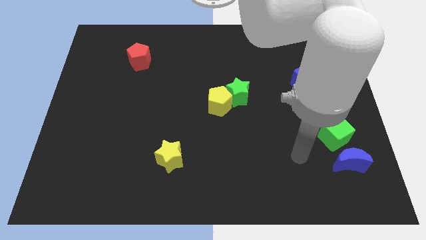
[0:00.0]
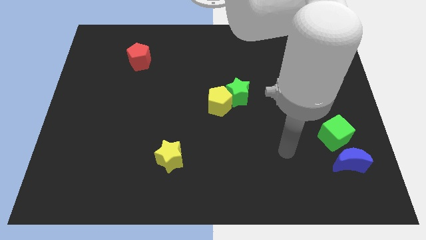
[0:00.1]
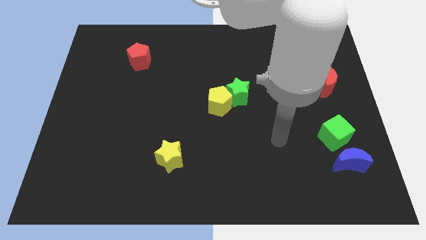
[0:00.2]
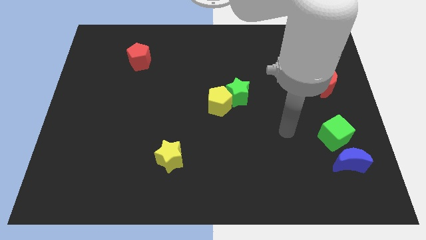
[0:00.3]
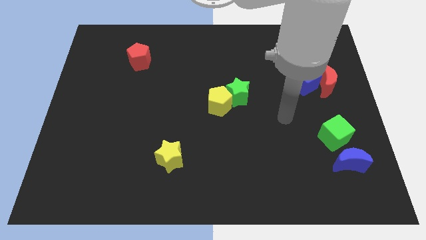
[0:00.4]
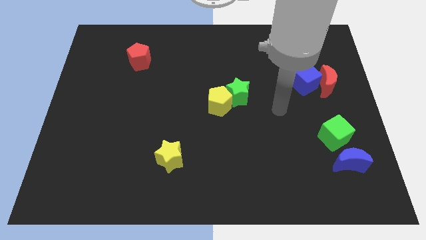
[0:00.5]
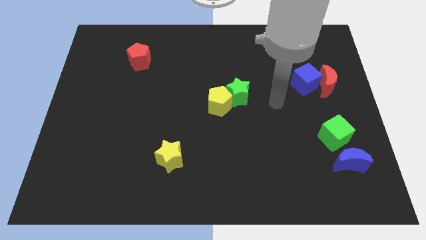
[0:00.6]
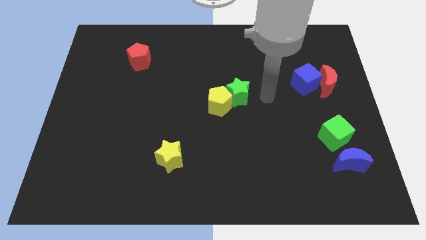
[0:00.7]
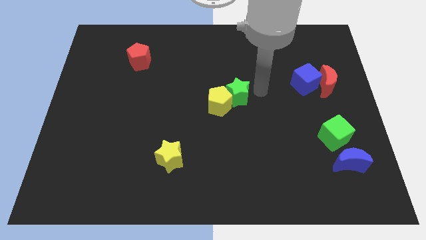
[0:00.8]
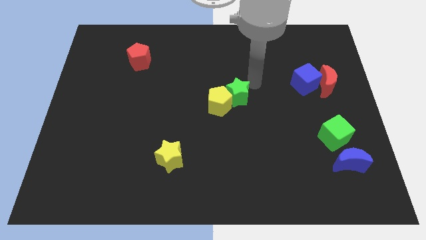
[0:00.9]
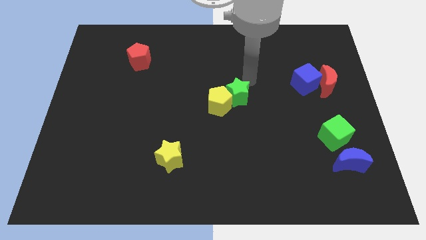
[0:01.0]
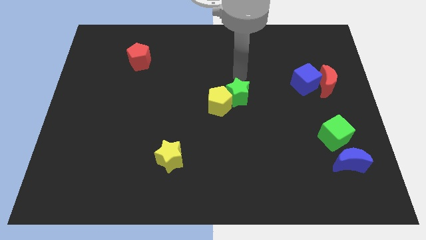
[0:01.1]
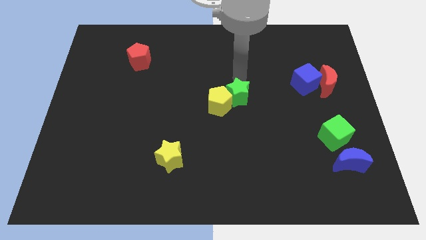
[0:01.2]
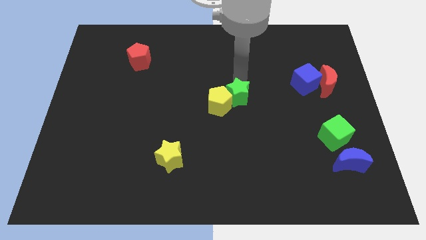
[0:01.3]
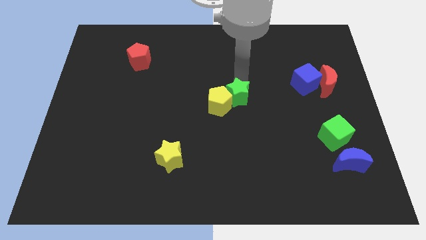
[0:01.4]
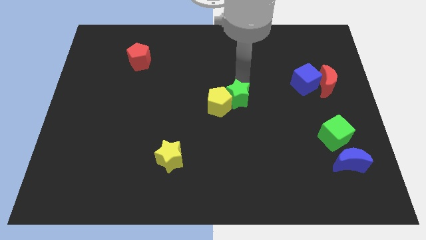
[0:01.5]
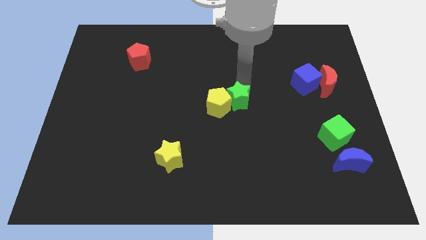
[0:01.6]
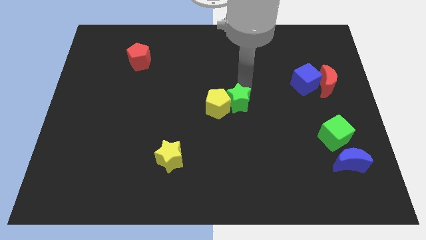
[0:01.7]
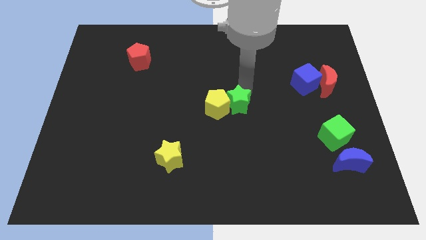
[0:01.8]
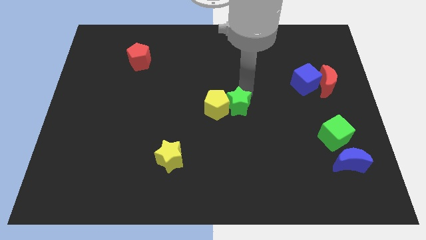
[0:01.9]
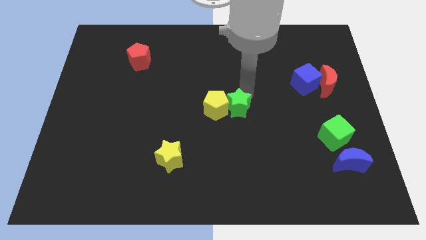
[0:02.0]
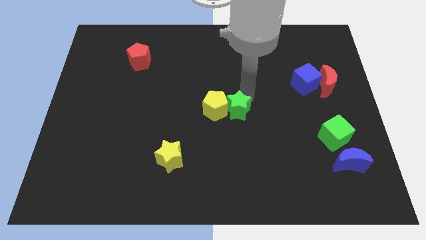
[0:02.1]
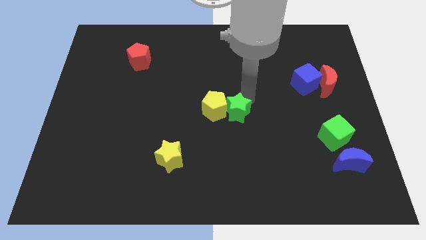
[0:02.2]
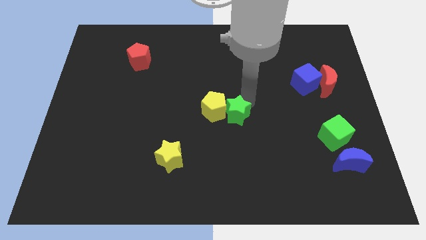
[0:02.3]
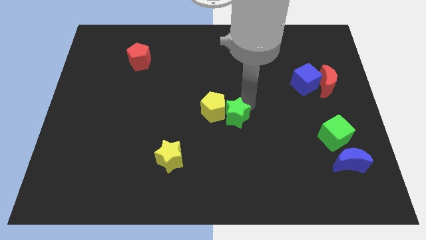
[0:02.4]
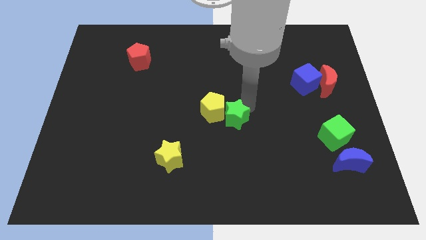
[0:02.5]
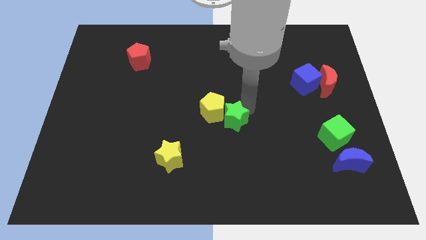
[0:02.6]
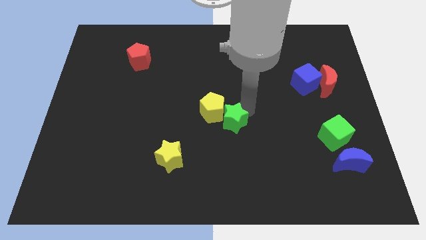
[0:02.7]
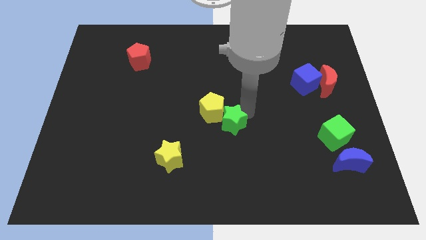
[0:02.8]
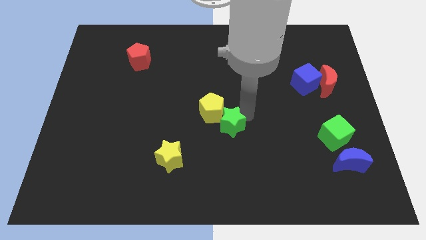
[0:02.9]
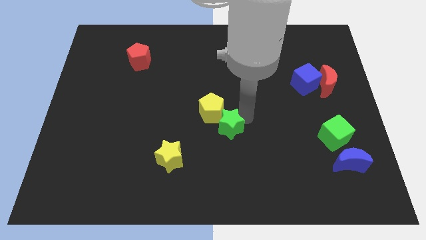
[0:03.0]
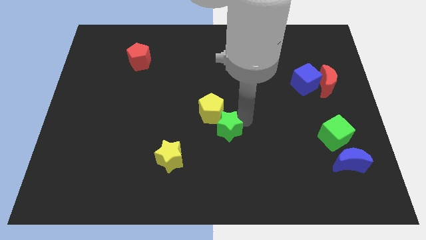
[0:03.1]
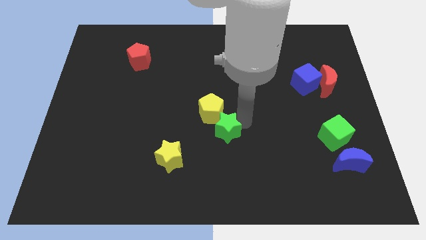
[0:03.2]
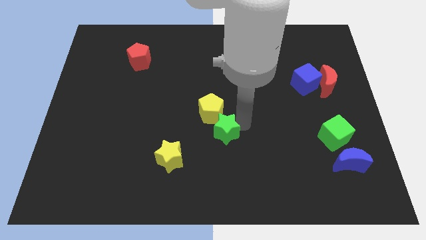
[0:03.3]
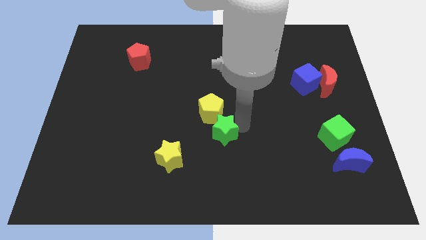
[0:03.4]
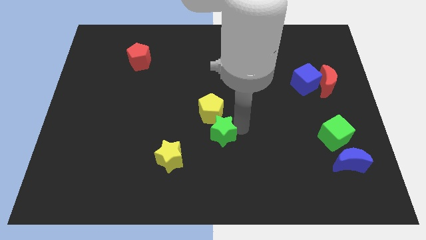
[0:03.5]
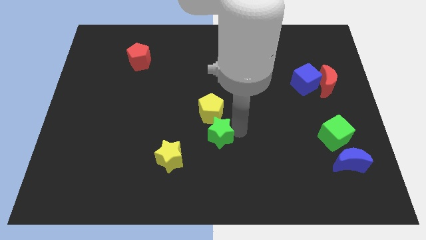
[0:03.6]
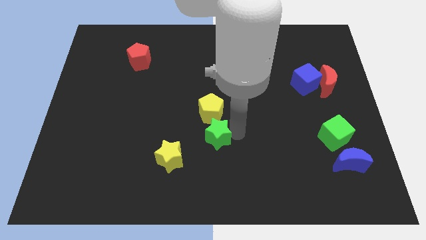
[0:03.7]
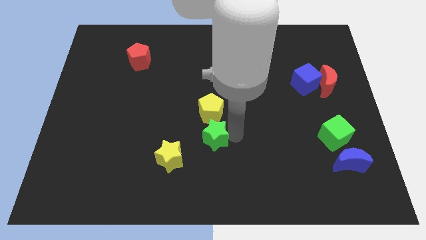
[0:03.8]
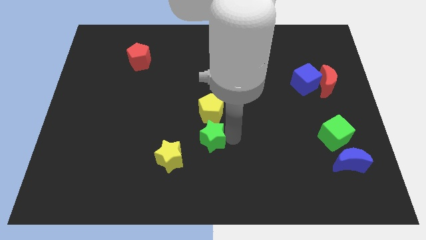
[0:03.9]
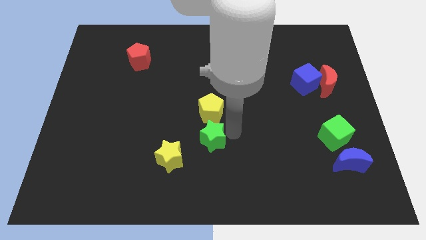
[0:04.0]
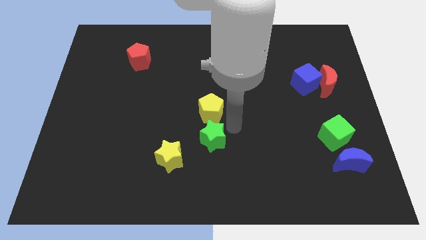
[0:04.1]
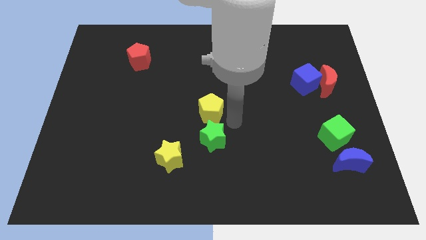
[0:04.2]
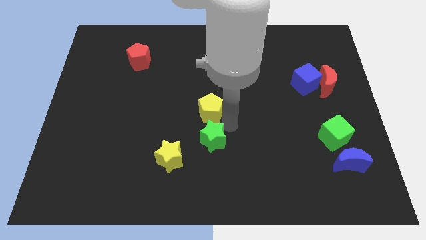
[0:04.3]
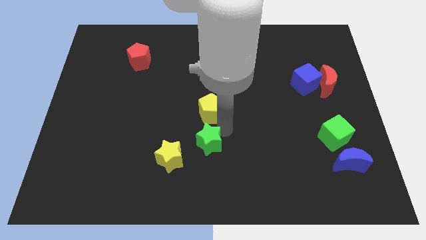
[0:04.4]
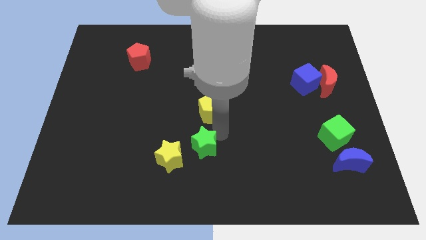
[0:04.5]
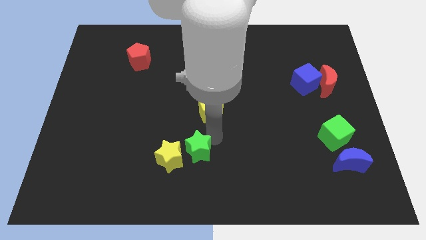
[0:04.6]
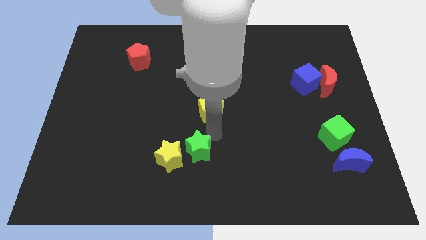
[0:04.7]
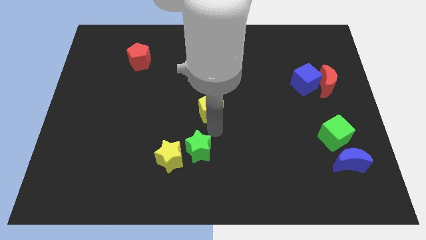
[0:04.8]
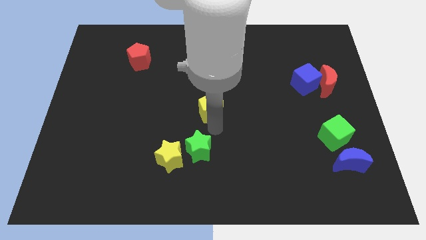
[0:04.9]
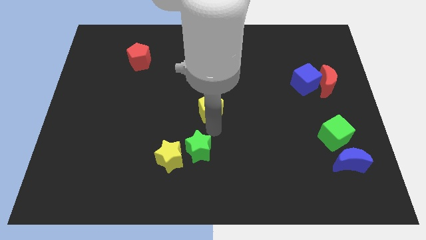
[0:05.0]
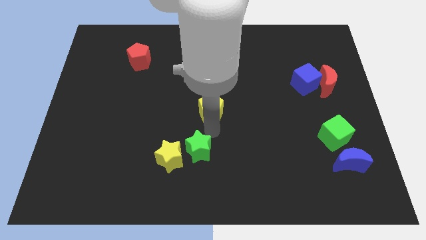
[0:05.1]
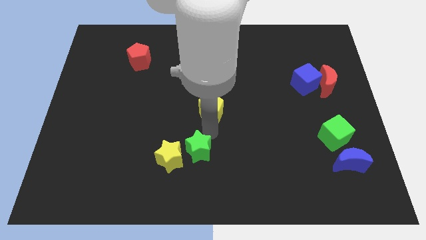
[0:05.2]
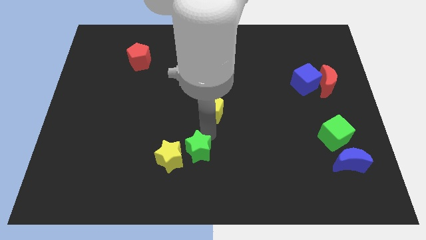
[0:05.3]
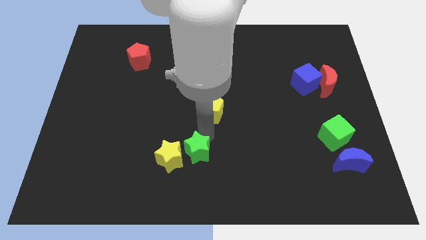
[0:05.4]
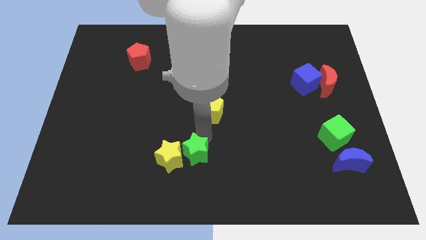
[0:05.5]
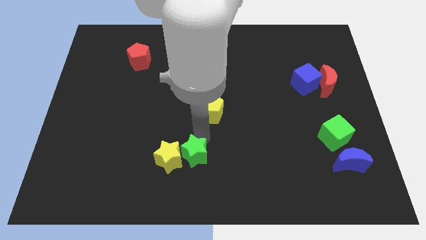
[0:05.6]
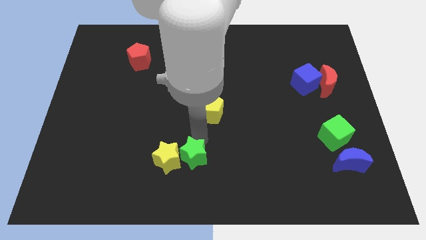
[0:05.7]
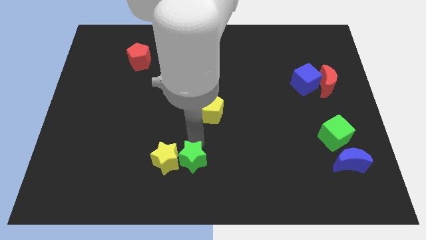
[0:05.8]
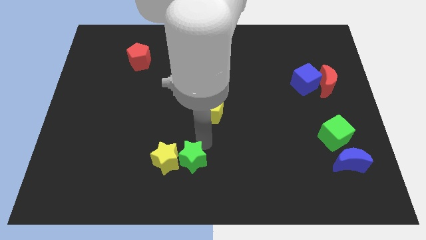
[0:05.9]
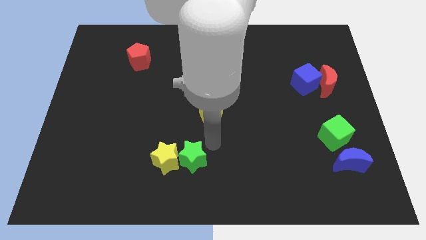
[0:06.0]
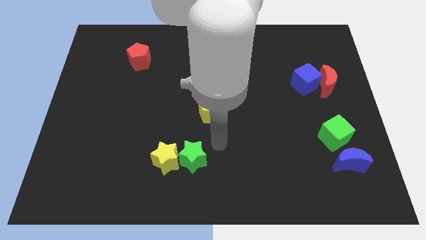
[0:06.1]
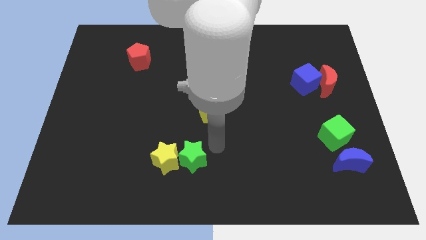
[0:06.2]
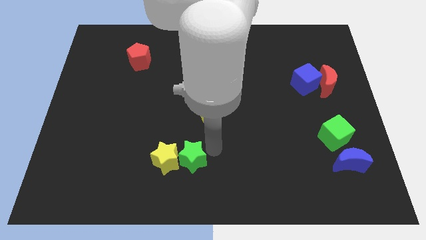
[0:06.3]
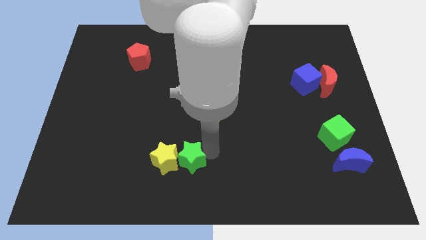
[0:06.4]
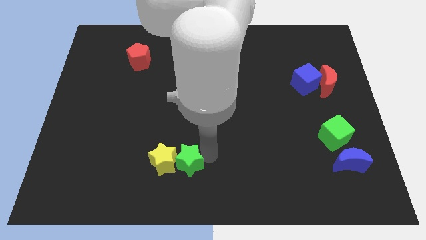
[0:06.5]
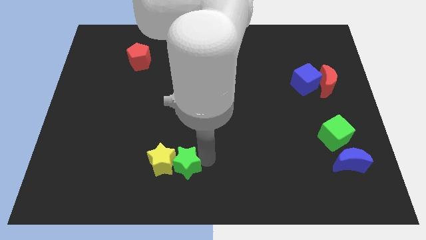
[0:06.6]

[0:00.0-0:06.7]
move the green star downwards and left

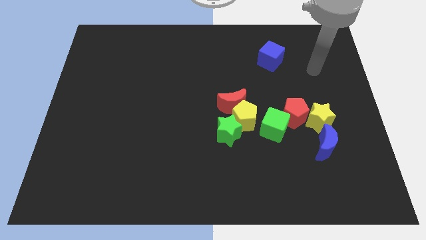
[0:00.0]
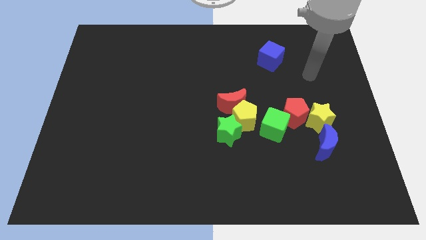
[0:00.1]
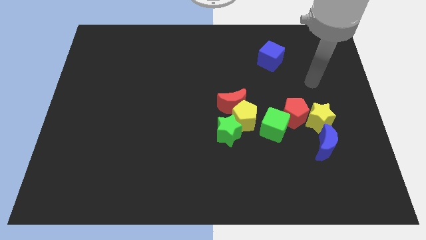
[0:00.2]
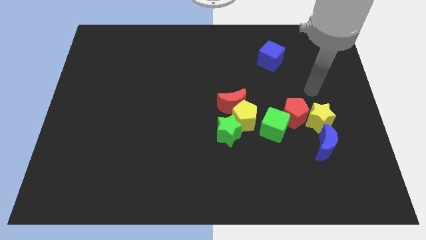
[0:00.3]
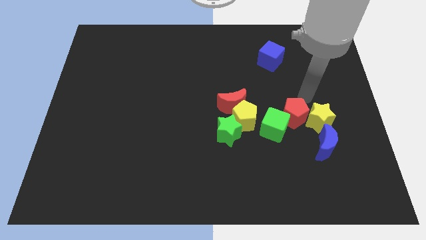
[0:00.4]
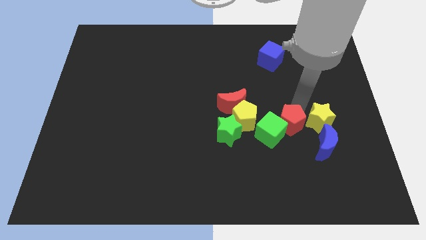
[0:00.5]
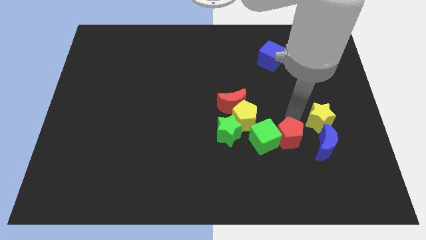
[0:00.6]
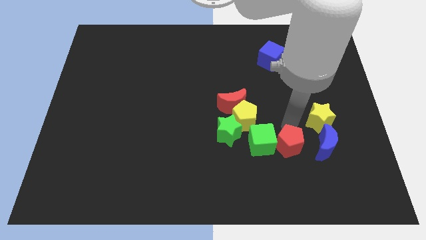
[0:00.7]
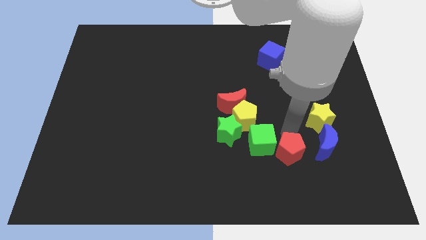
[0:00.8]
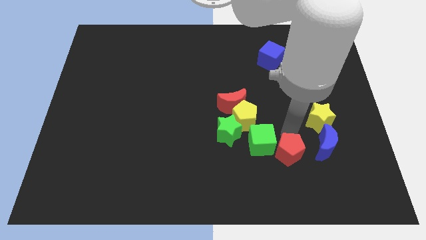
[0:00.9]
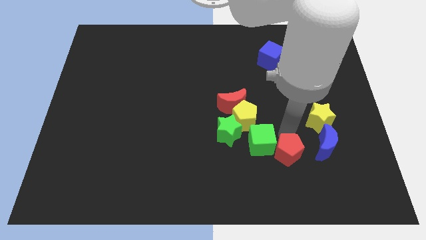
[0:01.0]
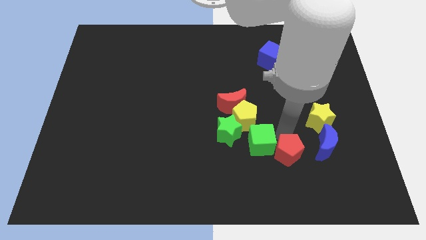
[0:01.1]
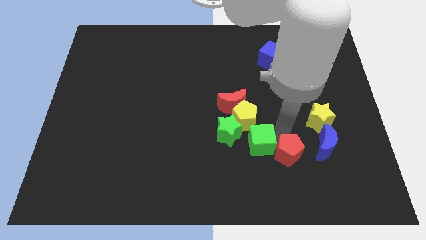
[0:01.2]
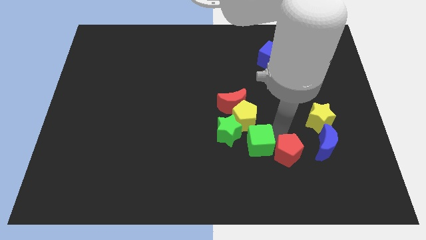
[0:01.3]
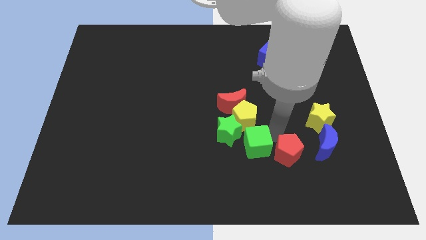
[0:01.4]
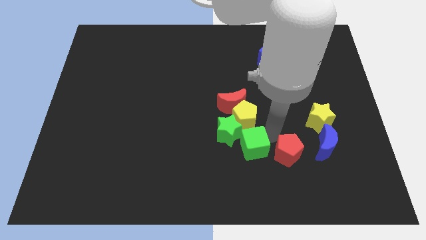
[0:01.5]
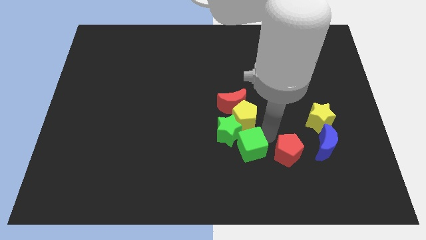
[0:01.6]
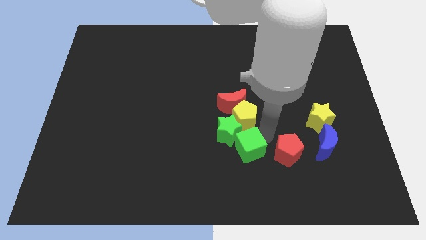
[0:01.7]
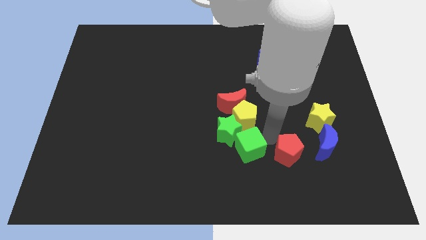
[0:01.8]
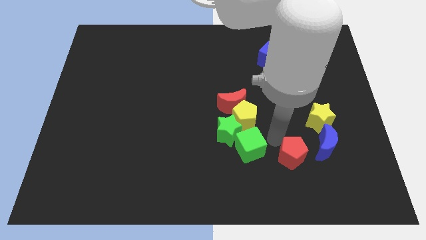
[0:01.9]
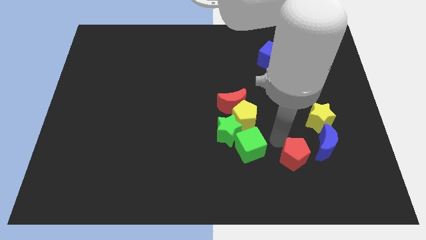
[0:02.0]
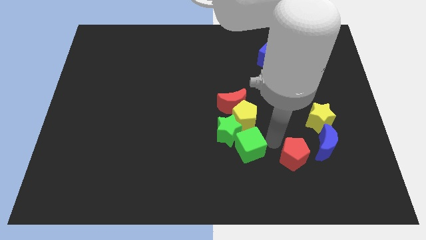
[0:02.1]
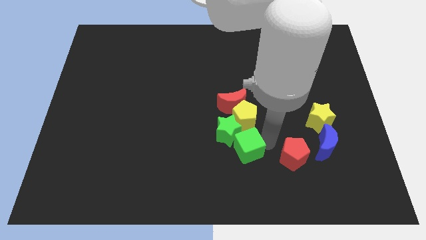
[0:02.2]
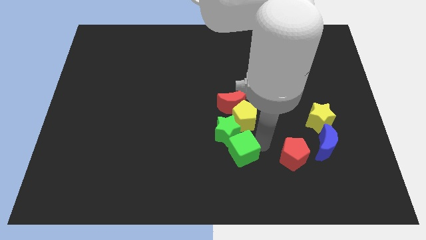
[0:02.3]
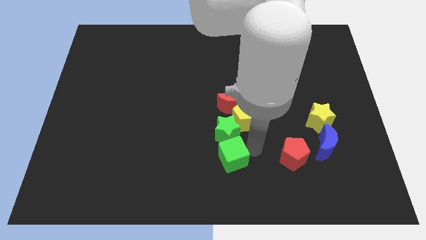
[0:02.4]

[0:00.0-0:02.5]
move the green cube left slightly
